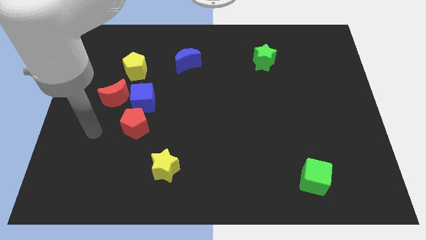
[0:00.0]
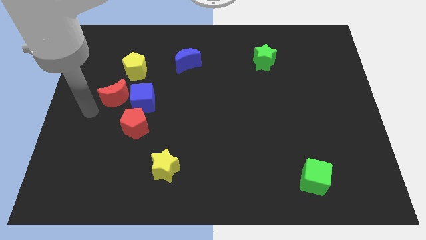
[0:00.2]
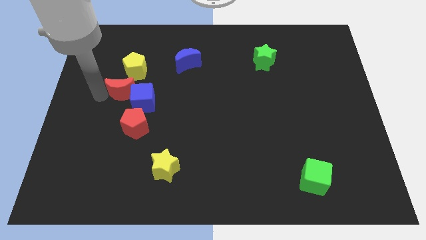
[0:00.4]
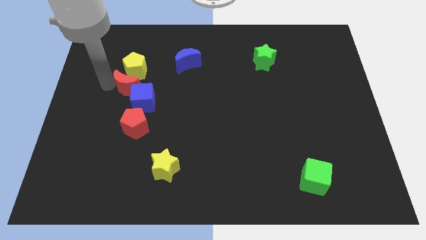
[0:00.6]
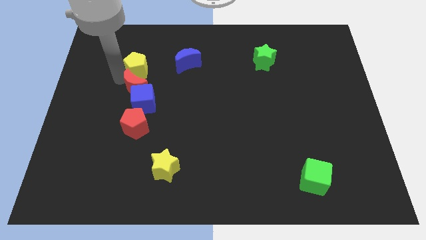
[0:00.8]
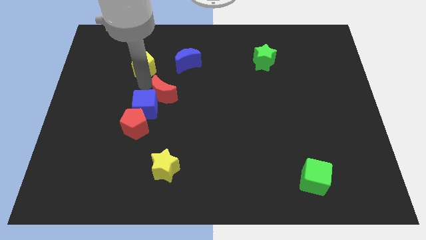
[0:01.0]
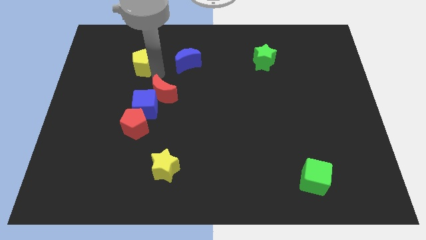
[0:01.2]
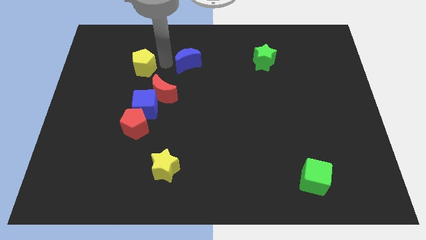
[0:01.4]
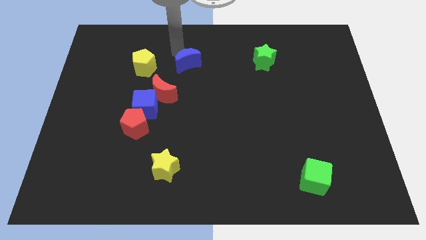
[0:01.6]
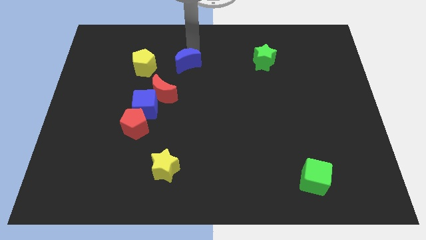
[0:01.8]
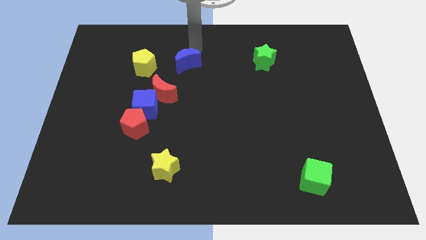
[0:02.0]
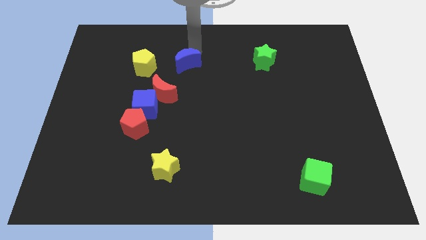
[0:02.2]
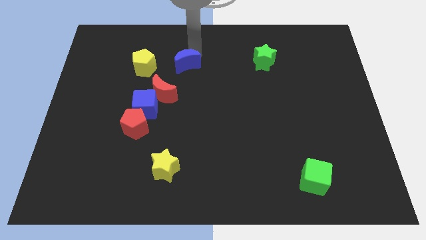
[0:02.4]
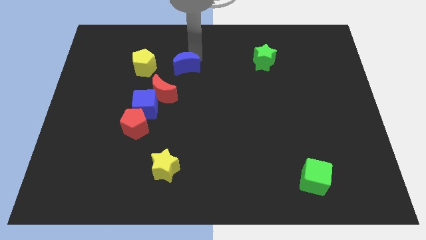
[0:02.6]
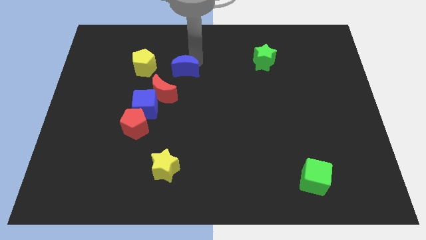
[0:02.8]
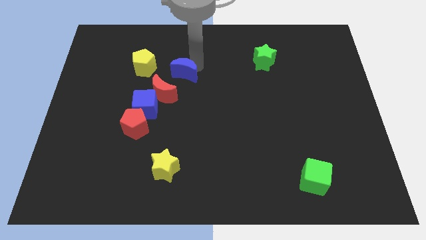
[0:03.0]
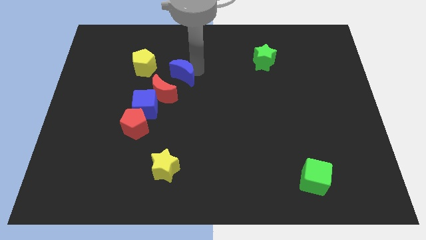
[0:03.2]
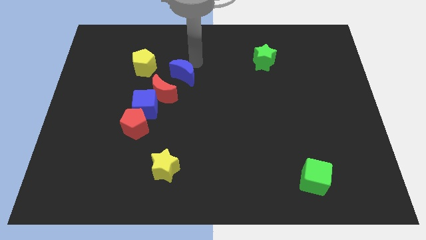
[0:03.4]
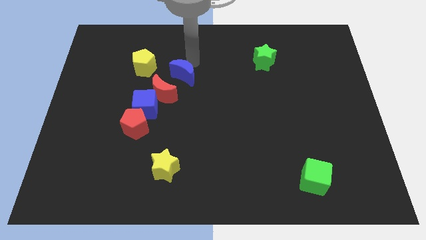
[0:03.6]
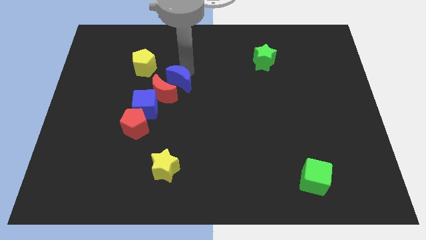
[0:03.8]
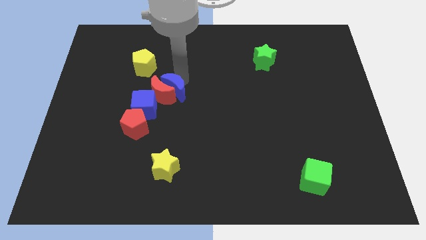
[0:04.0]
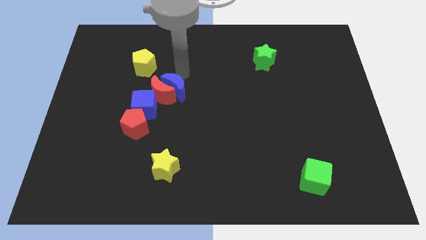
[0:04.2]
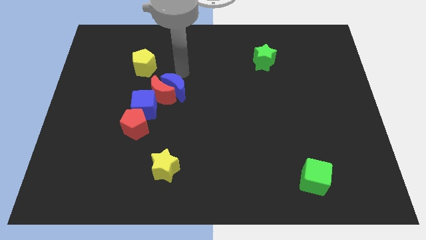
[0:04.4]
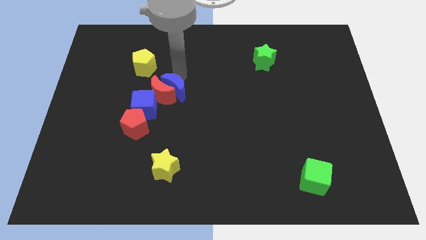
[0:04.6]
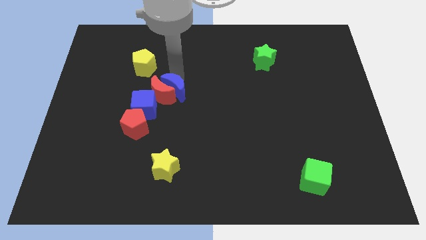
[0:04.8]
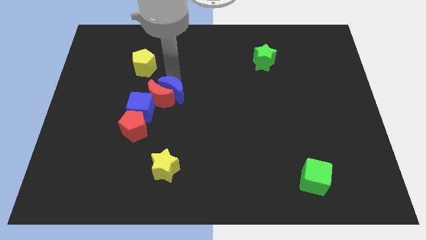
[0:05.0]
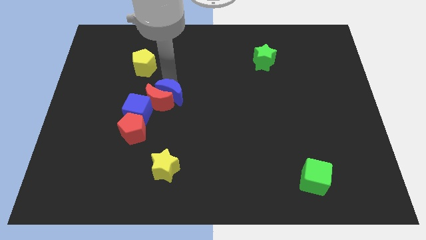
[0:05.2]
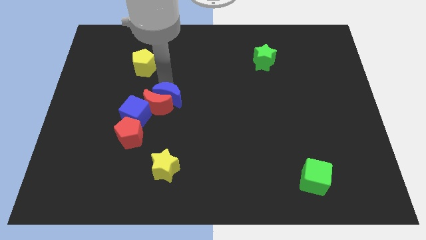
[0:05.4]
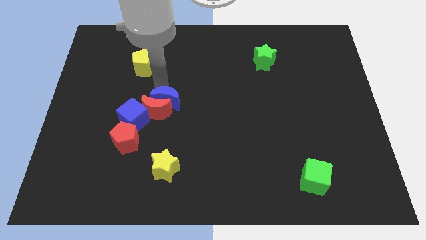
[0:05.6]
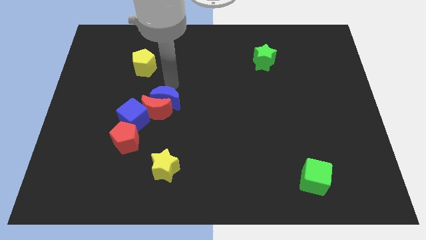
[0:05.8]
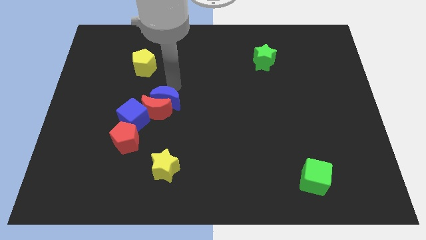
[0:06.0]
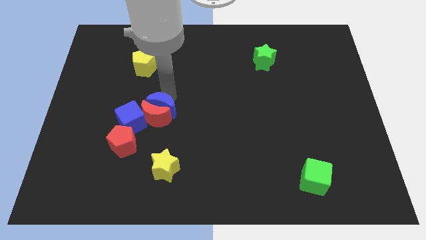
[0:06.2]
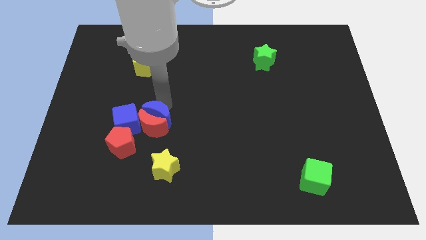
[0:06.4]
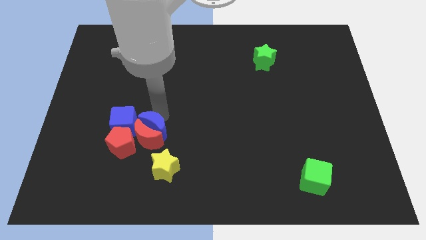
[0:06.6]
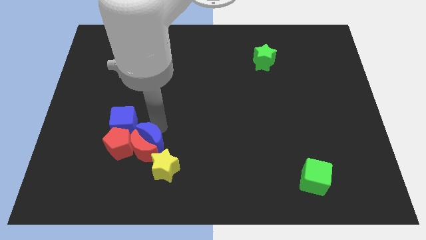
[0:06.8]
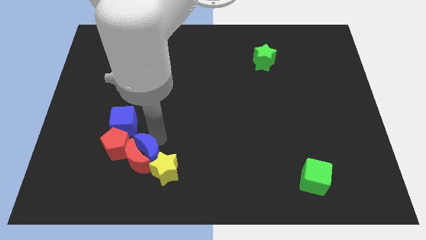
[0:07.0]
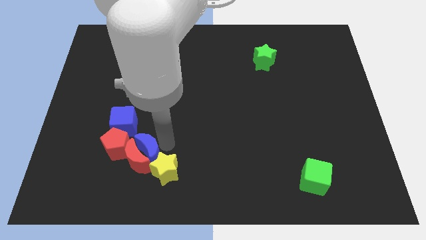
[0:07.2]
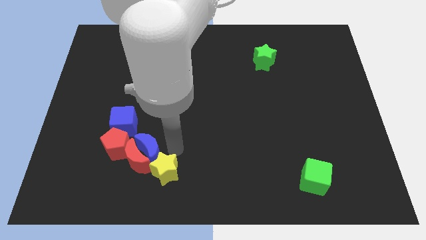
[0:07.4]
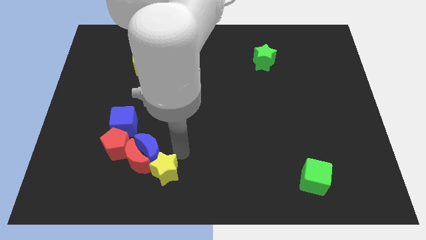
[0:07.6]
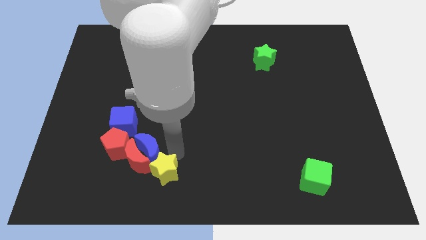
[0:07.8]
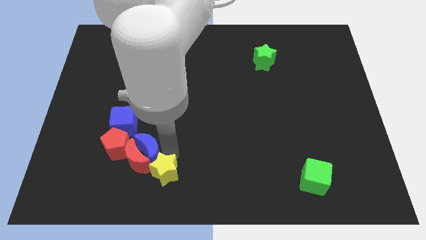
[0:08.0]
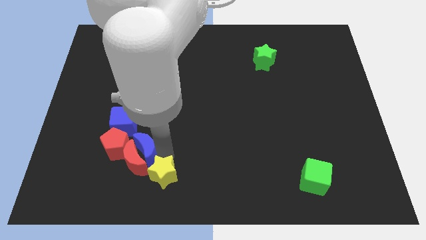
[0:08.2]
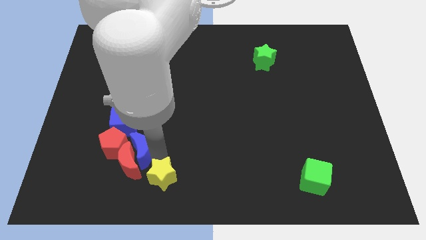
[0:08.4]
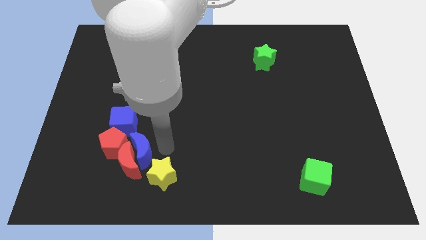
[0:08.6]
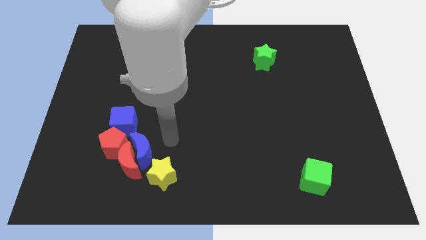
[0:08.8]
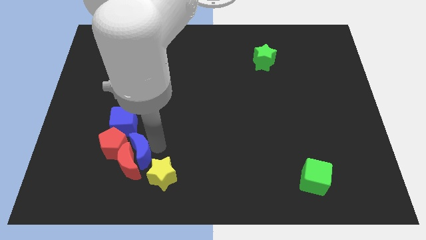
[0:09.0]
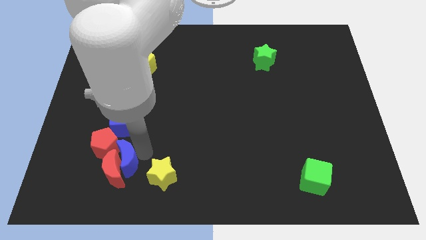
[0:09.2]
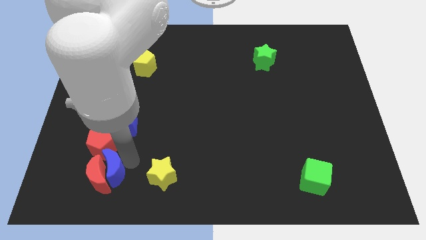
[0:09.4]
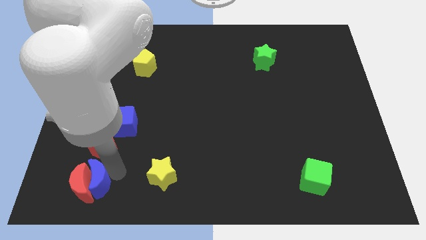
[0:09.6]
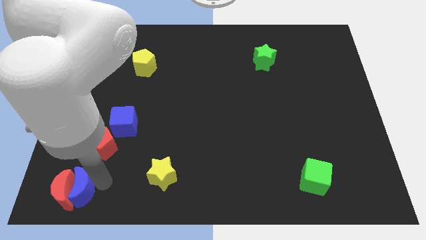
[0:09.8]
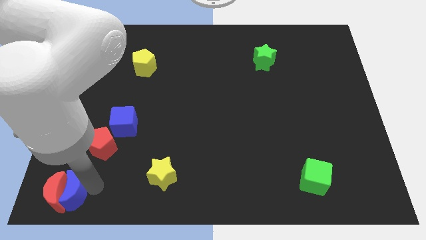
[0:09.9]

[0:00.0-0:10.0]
put the blue moon to the bottom left corner

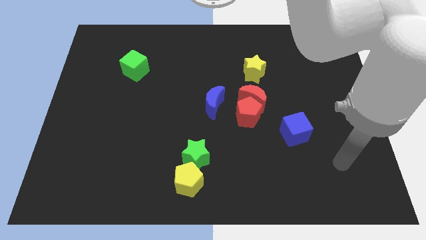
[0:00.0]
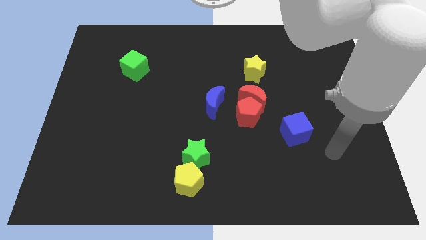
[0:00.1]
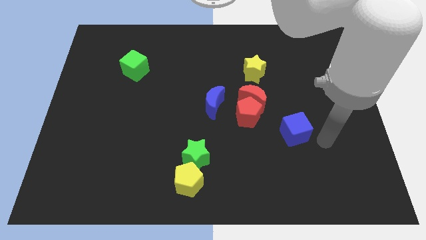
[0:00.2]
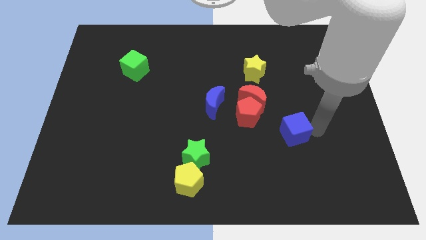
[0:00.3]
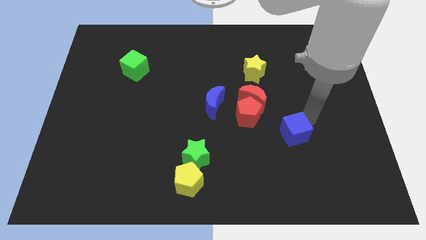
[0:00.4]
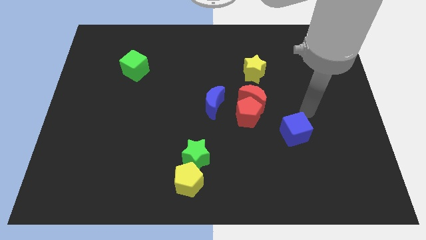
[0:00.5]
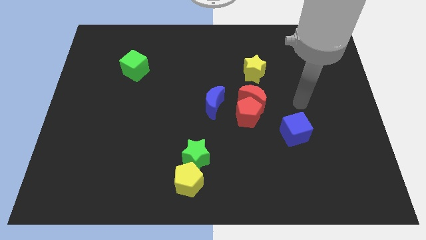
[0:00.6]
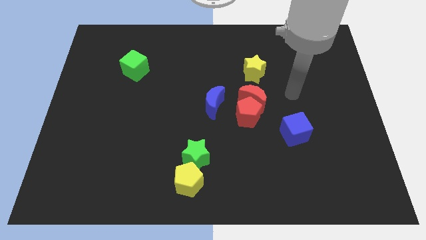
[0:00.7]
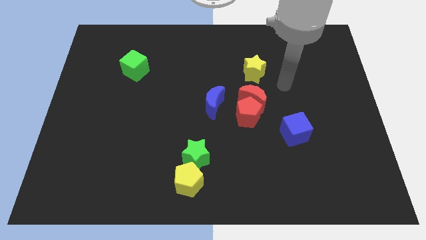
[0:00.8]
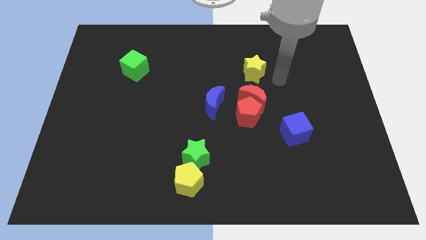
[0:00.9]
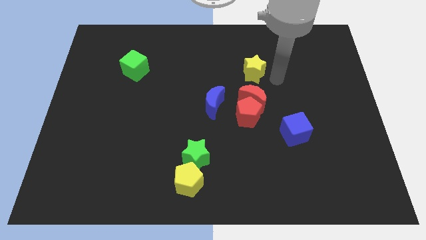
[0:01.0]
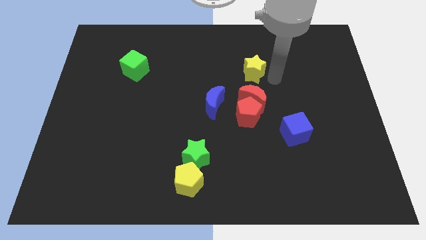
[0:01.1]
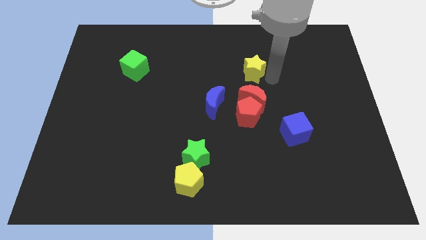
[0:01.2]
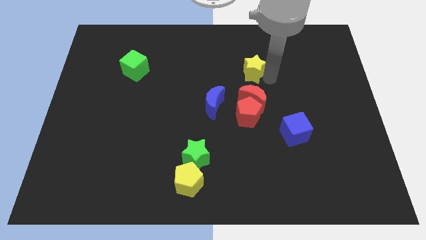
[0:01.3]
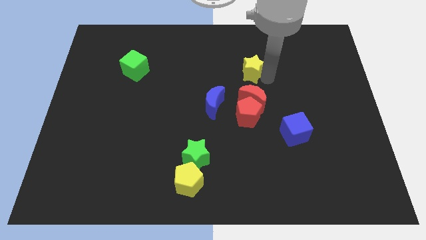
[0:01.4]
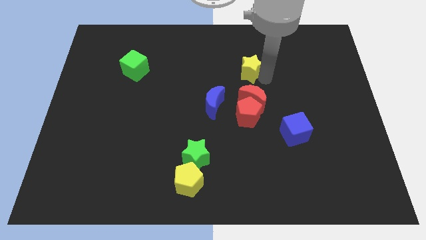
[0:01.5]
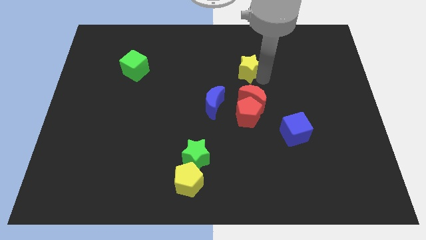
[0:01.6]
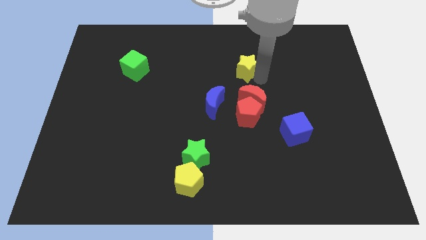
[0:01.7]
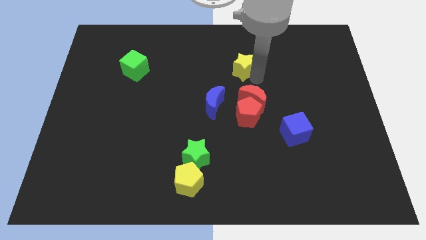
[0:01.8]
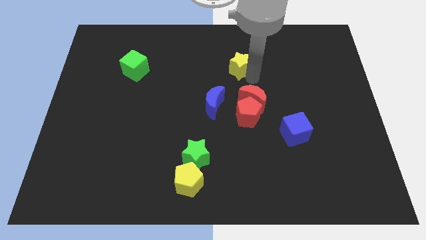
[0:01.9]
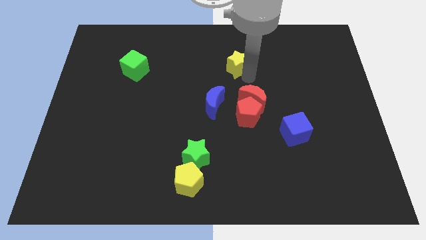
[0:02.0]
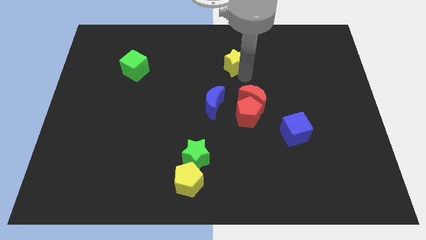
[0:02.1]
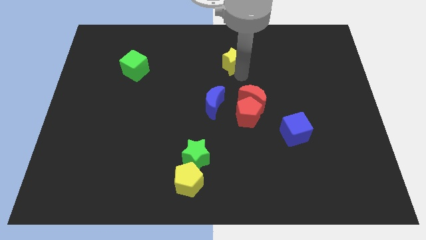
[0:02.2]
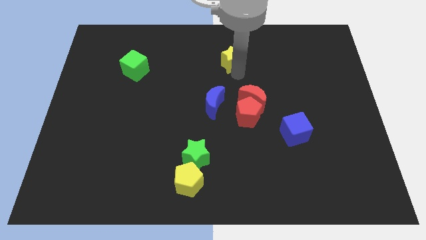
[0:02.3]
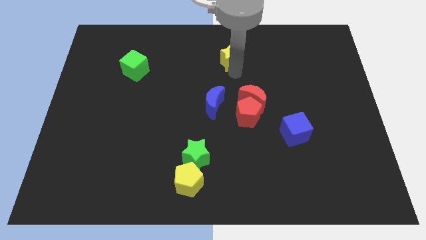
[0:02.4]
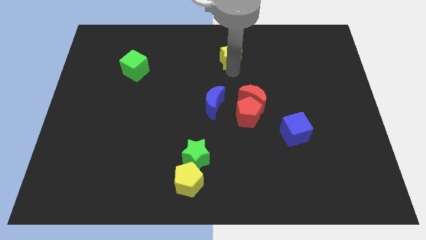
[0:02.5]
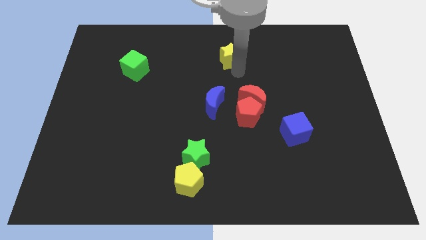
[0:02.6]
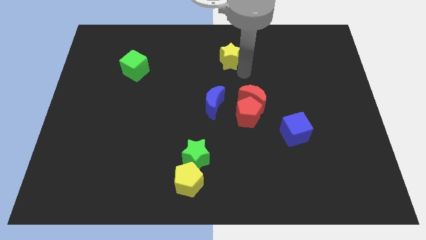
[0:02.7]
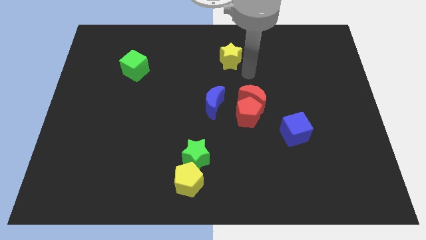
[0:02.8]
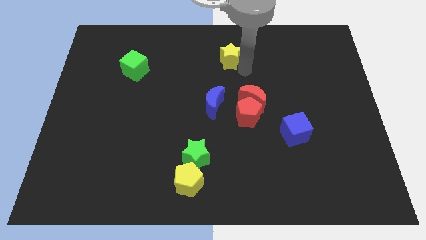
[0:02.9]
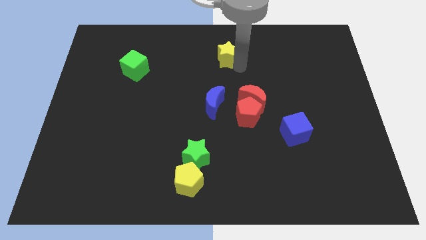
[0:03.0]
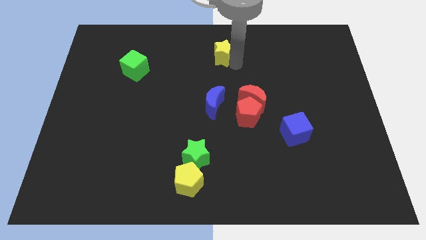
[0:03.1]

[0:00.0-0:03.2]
slide the yellow star to the towards your base
